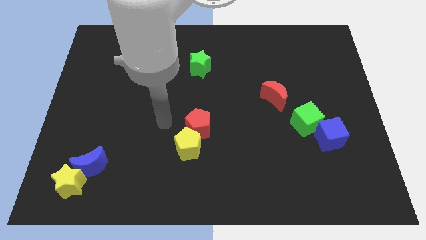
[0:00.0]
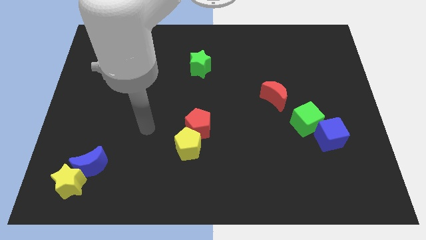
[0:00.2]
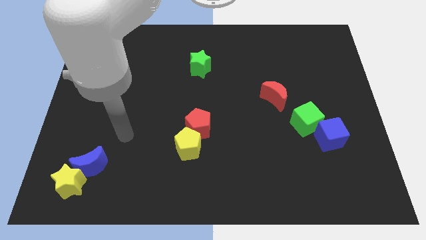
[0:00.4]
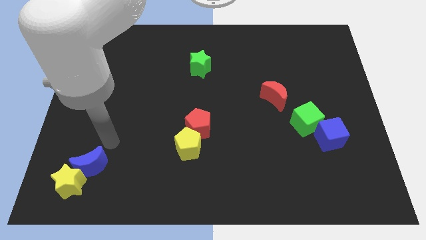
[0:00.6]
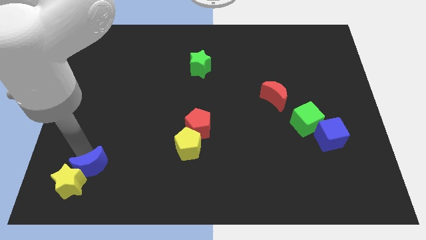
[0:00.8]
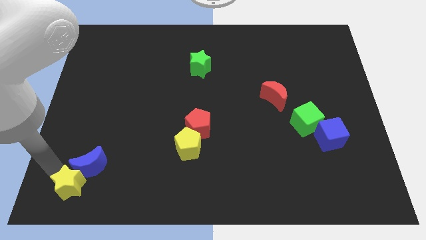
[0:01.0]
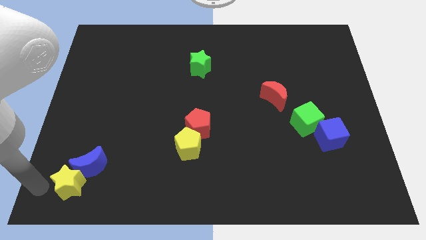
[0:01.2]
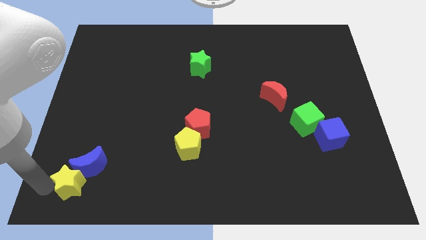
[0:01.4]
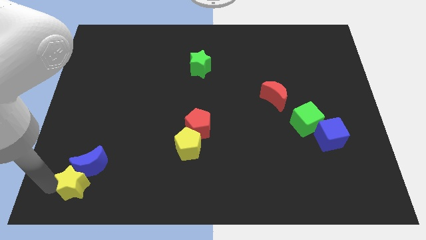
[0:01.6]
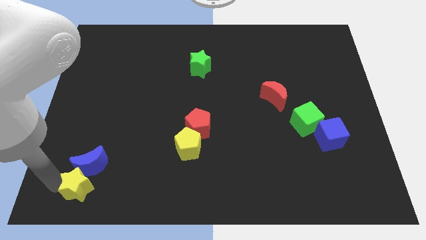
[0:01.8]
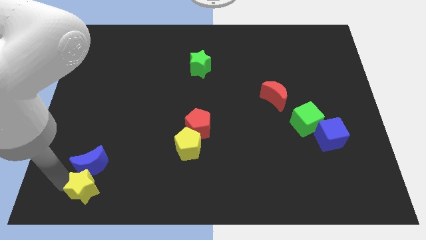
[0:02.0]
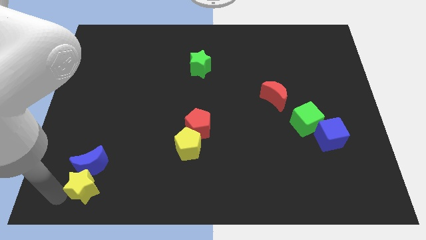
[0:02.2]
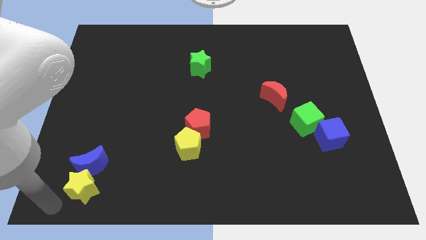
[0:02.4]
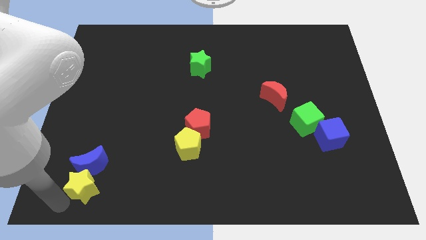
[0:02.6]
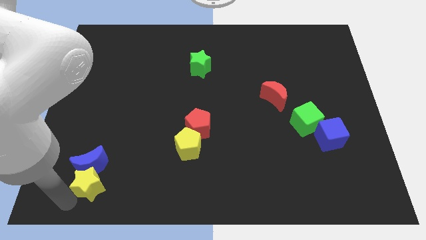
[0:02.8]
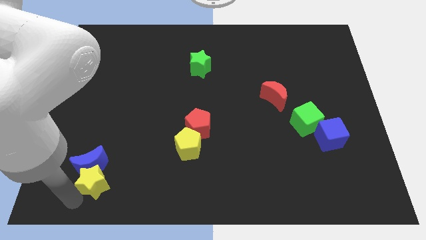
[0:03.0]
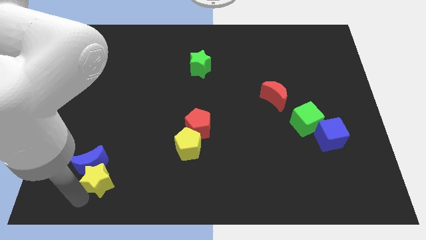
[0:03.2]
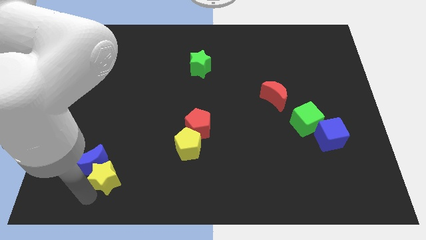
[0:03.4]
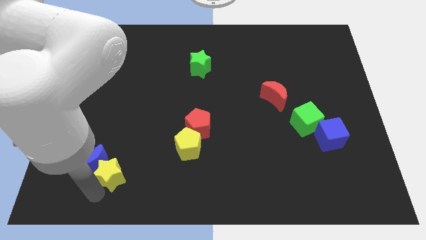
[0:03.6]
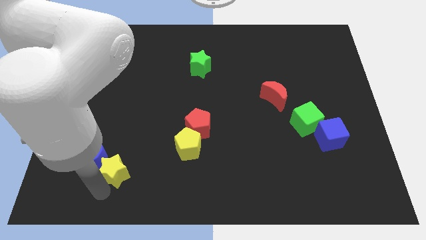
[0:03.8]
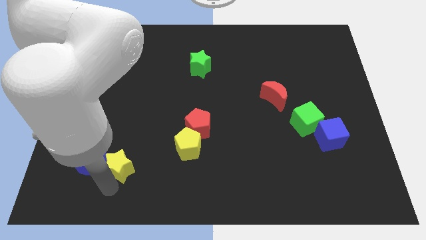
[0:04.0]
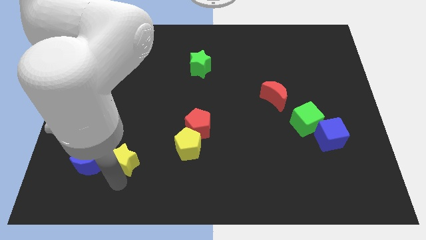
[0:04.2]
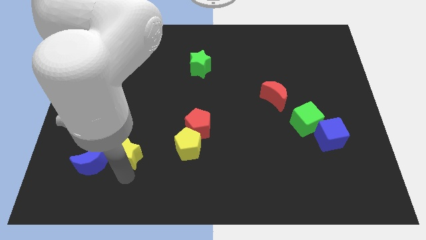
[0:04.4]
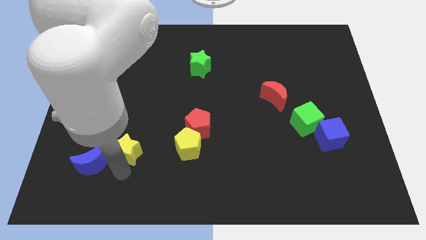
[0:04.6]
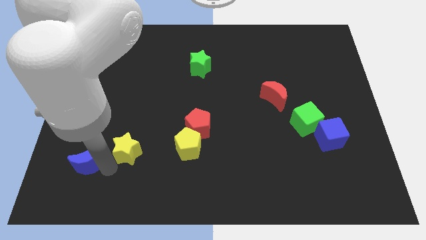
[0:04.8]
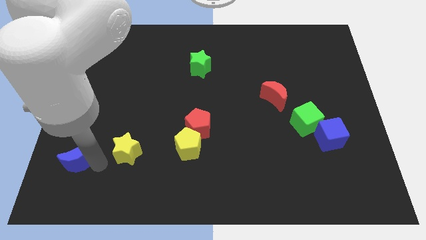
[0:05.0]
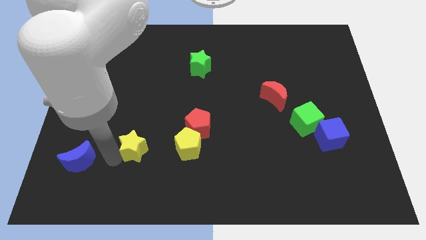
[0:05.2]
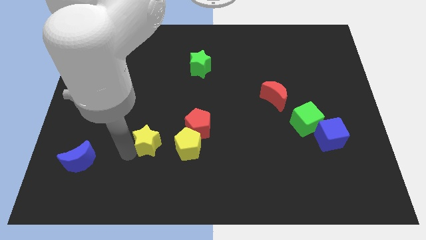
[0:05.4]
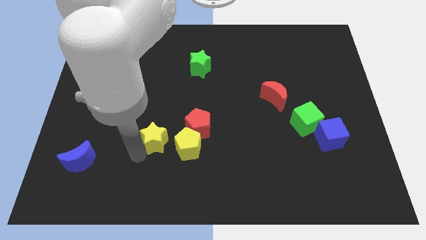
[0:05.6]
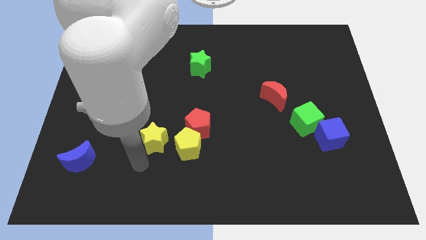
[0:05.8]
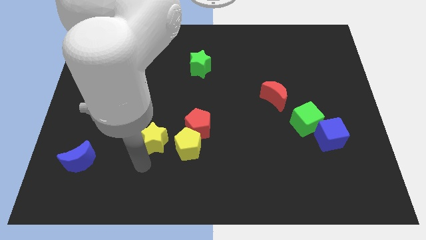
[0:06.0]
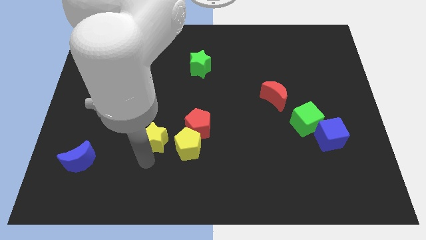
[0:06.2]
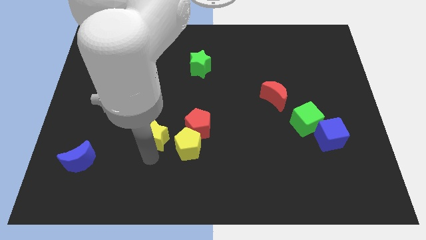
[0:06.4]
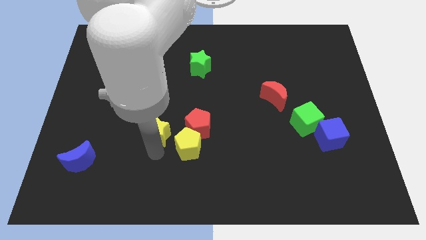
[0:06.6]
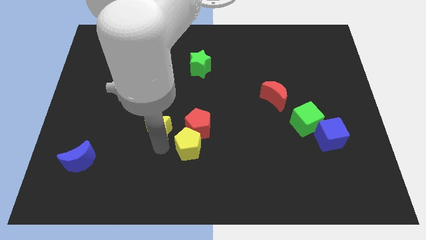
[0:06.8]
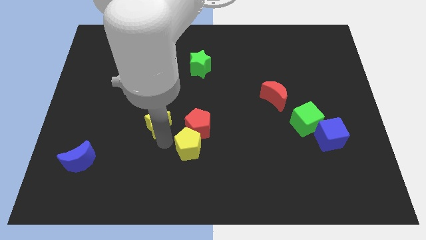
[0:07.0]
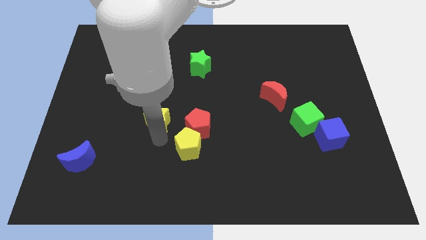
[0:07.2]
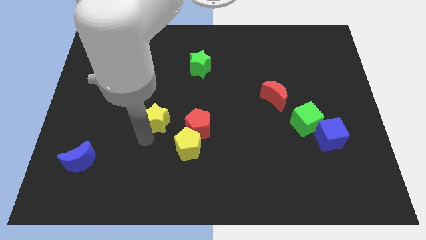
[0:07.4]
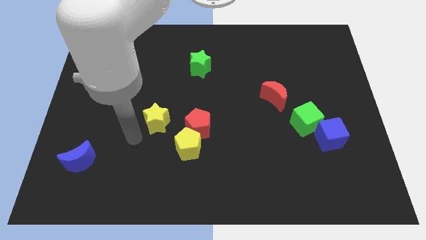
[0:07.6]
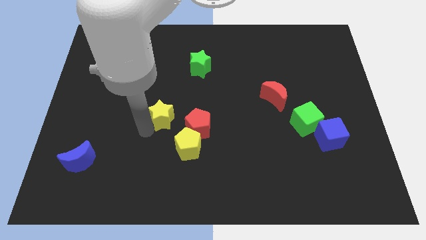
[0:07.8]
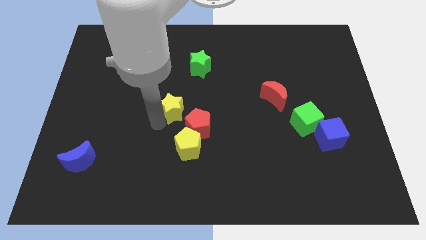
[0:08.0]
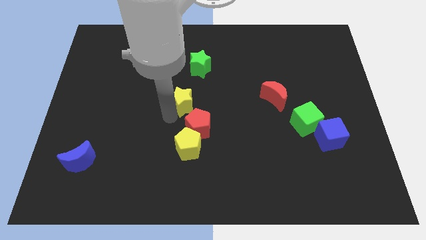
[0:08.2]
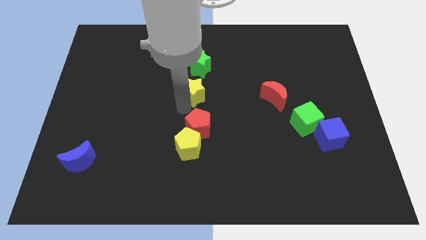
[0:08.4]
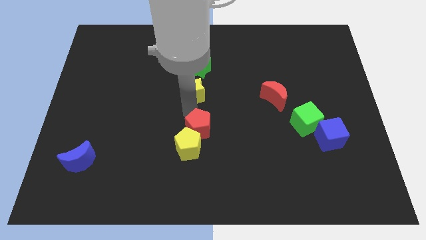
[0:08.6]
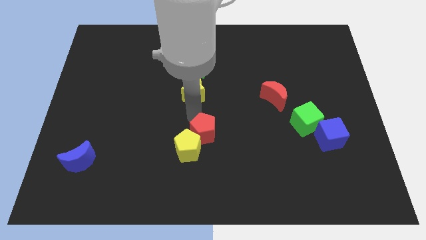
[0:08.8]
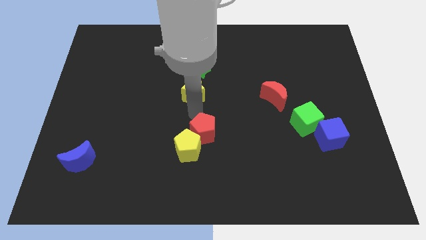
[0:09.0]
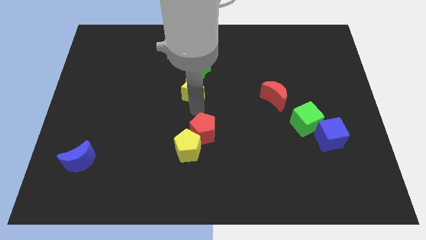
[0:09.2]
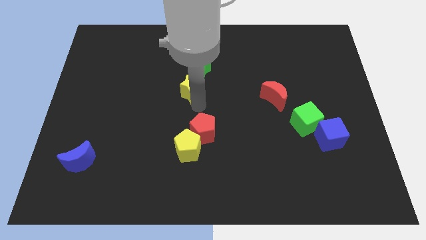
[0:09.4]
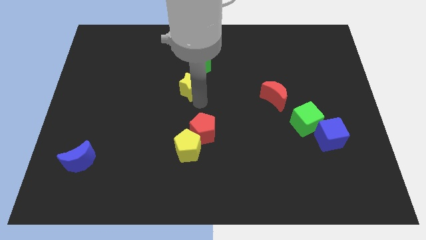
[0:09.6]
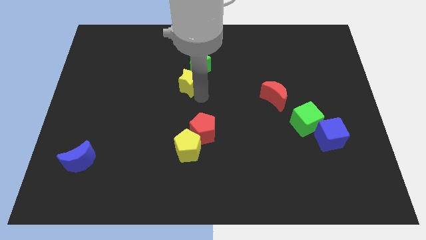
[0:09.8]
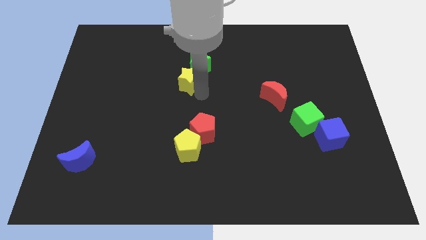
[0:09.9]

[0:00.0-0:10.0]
put the yellow star next to the green star

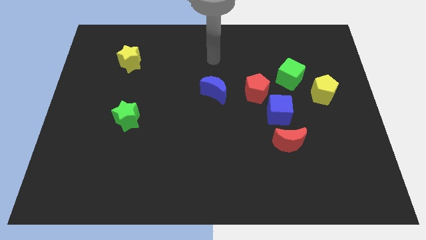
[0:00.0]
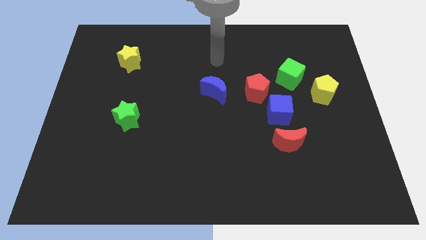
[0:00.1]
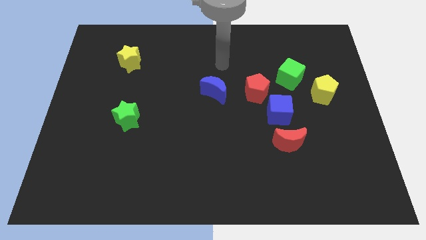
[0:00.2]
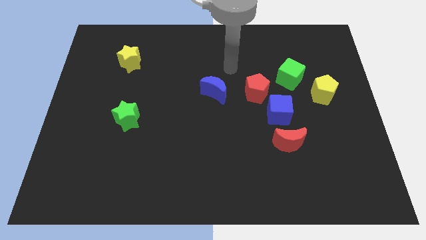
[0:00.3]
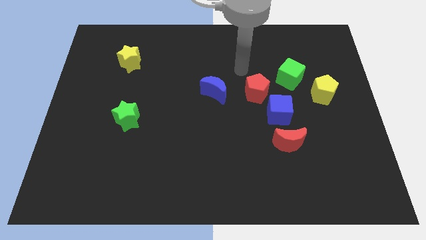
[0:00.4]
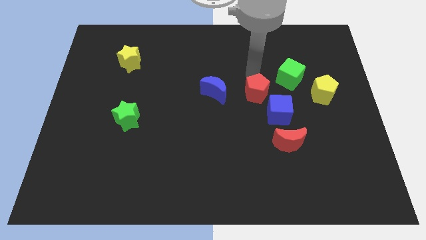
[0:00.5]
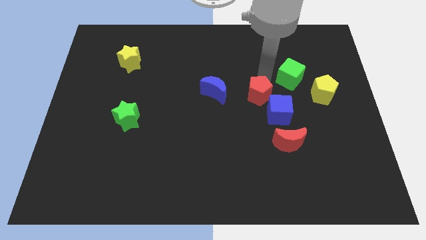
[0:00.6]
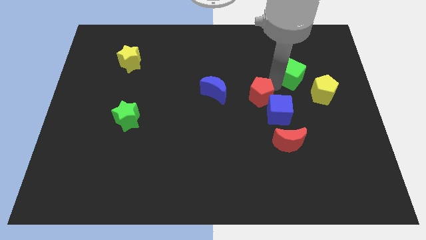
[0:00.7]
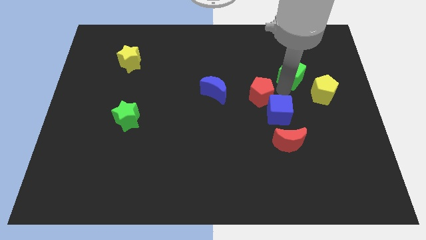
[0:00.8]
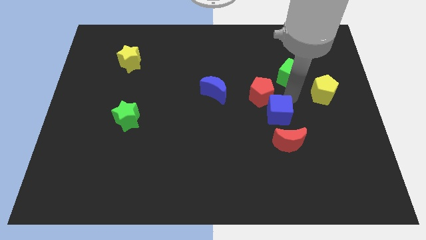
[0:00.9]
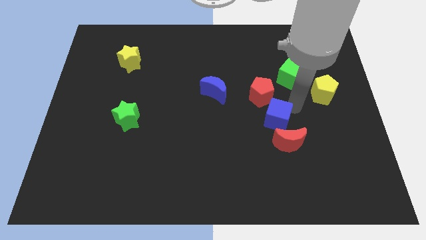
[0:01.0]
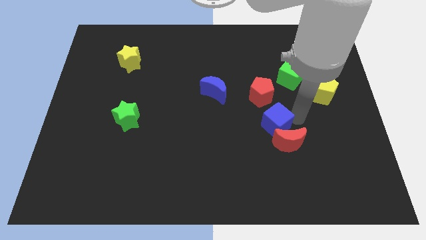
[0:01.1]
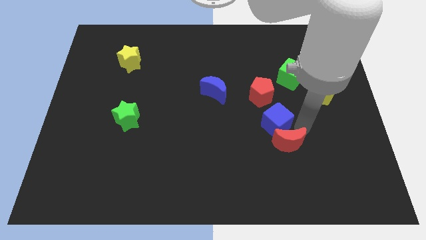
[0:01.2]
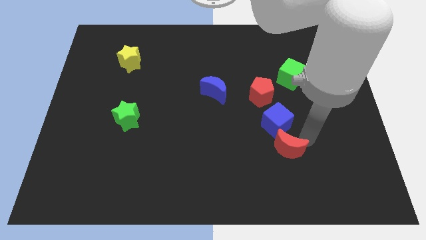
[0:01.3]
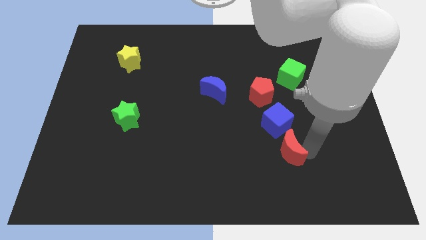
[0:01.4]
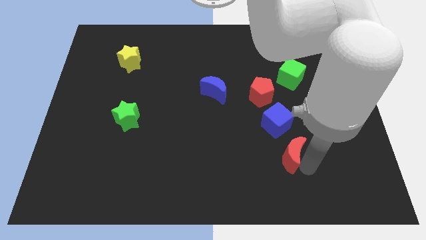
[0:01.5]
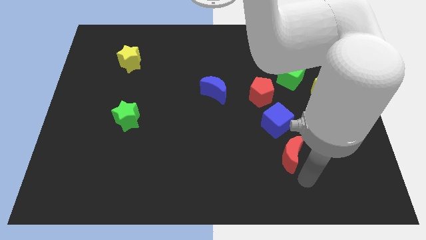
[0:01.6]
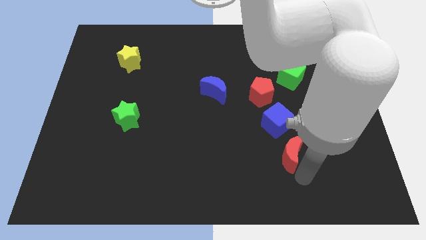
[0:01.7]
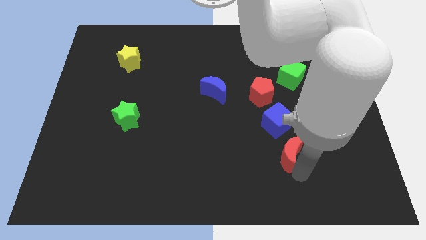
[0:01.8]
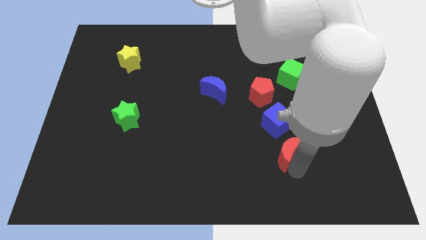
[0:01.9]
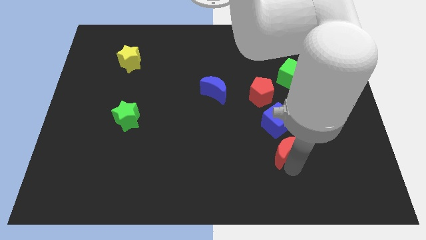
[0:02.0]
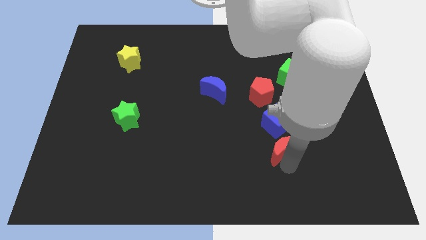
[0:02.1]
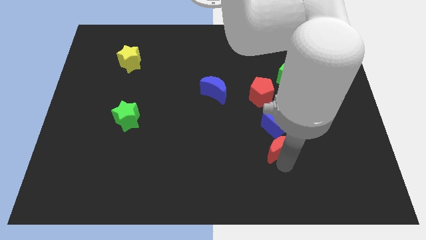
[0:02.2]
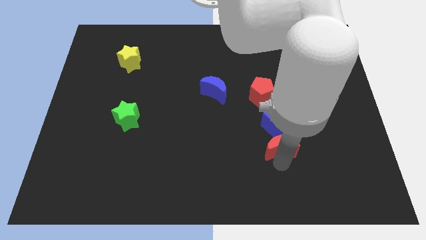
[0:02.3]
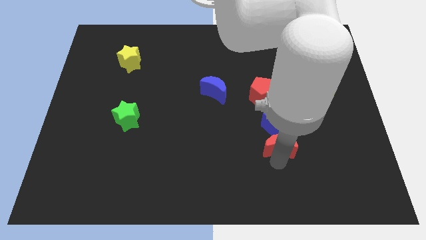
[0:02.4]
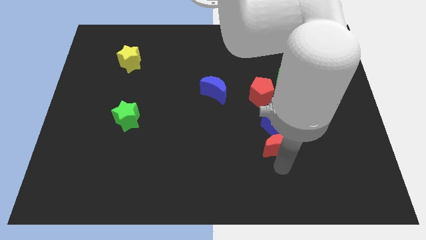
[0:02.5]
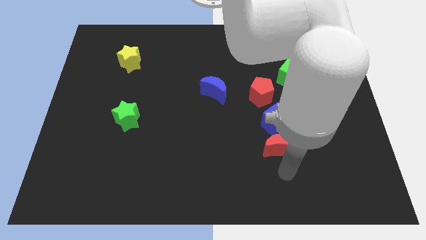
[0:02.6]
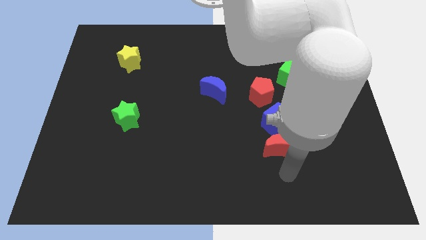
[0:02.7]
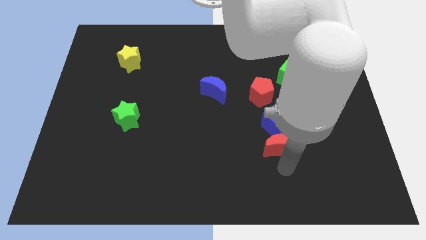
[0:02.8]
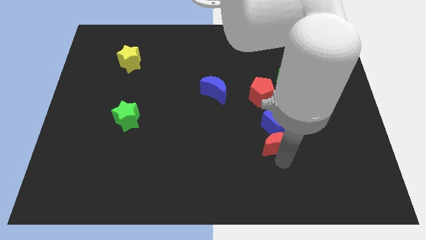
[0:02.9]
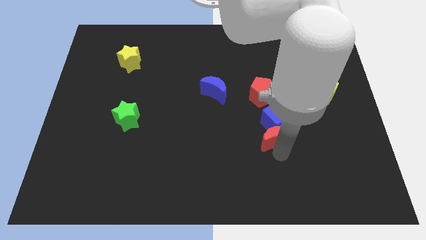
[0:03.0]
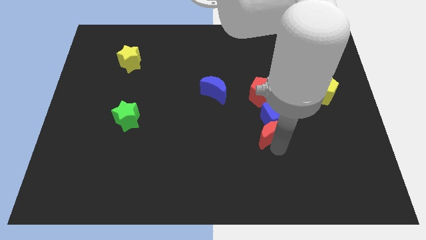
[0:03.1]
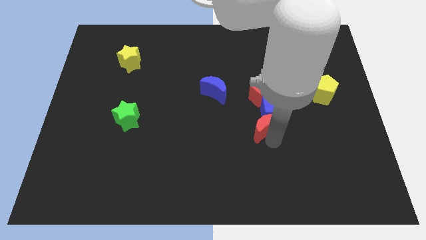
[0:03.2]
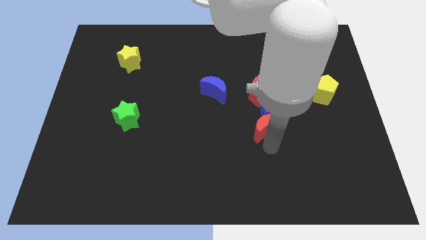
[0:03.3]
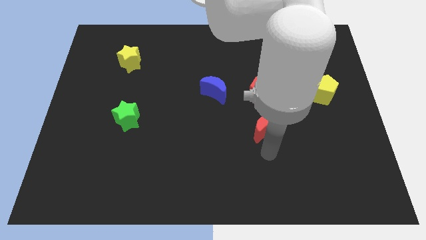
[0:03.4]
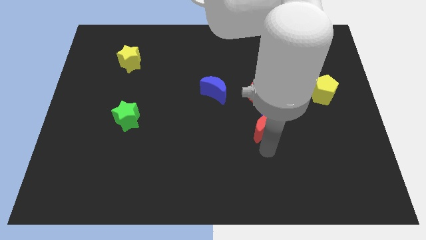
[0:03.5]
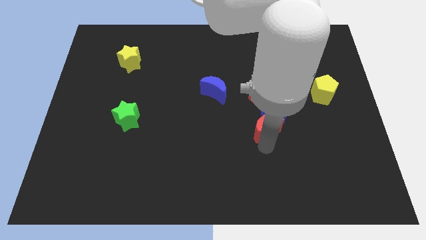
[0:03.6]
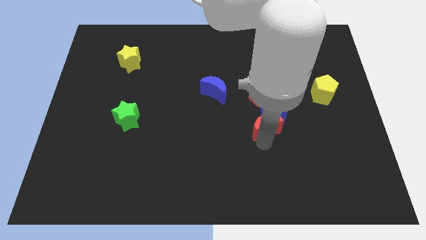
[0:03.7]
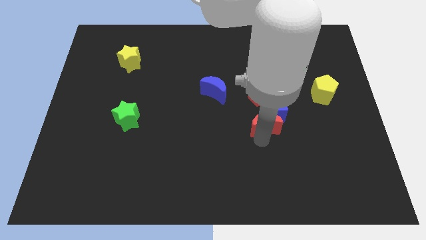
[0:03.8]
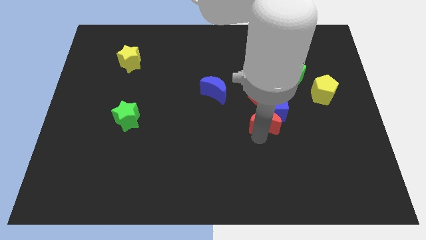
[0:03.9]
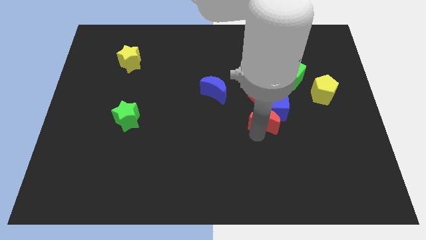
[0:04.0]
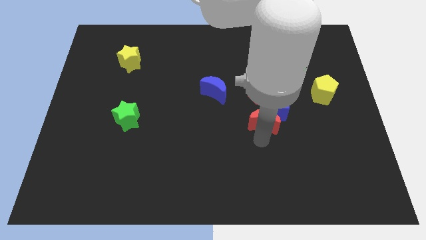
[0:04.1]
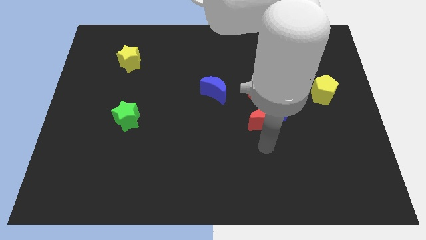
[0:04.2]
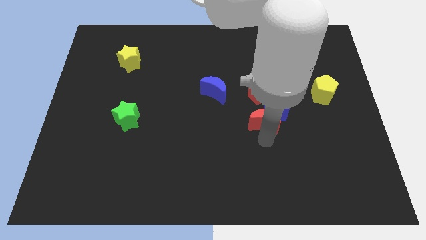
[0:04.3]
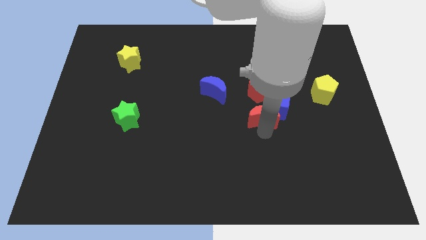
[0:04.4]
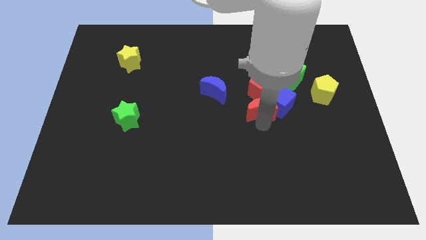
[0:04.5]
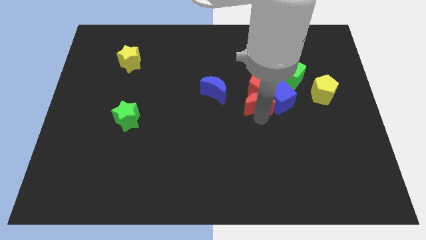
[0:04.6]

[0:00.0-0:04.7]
move the red moon next to the red pentagon
